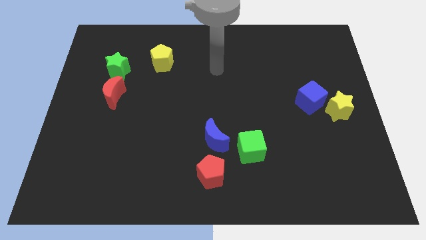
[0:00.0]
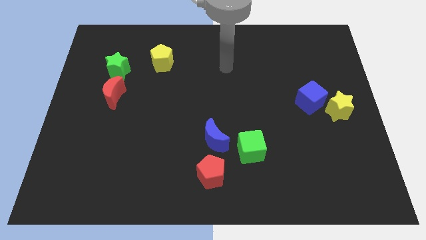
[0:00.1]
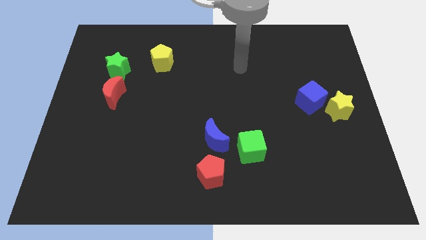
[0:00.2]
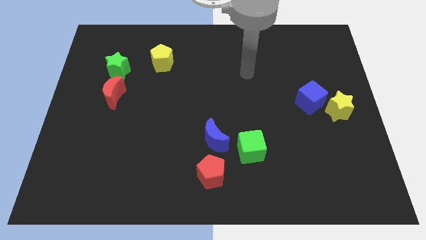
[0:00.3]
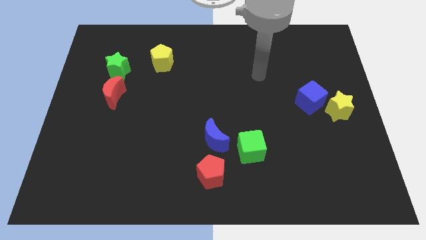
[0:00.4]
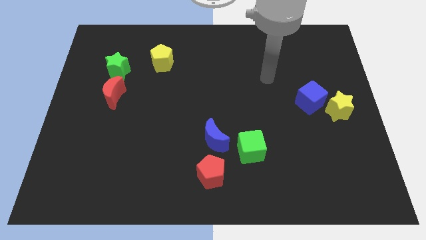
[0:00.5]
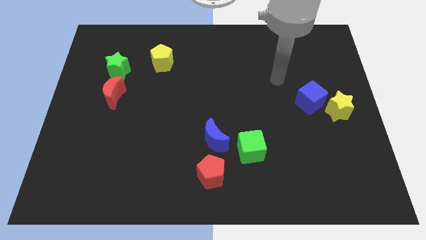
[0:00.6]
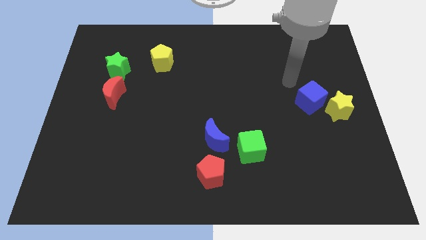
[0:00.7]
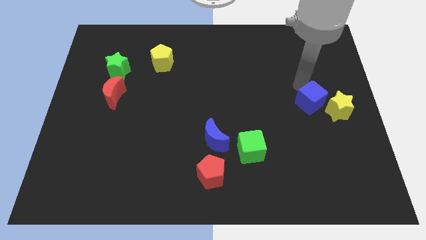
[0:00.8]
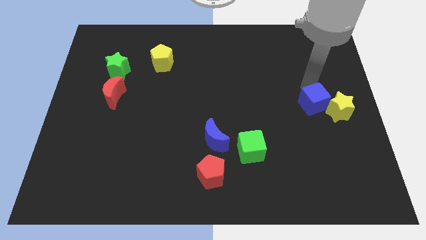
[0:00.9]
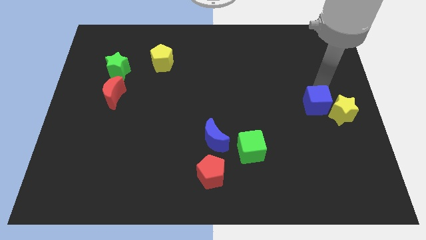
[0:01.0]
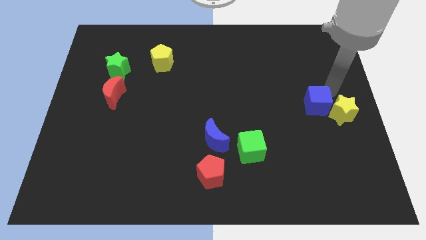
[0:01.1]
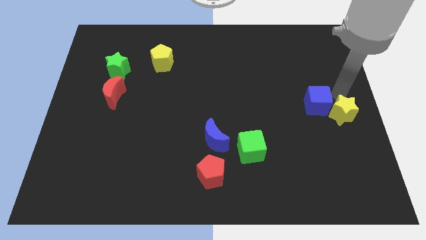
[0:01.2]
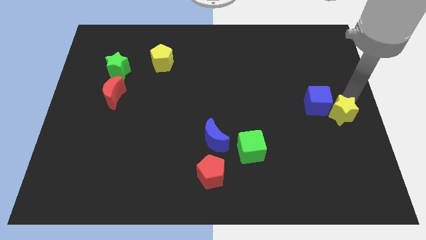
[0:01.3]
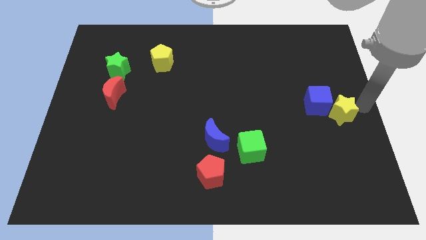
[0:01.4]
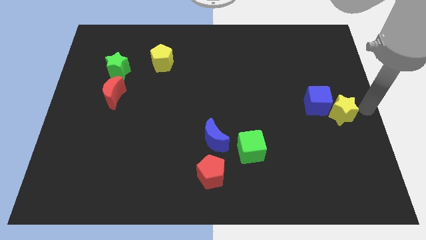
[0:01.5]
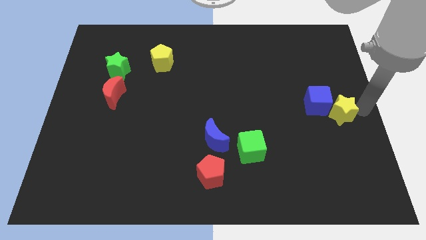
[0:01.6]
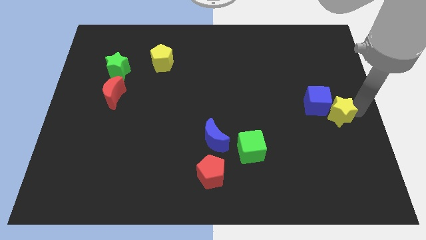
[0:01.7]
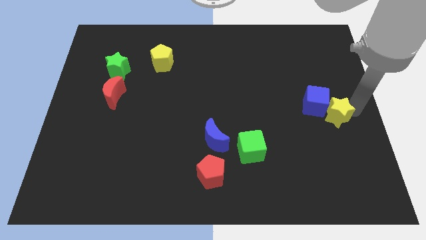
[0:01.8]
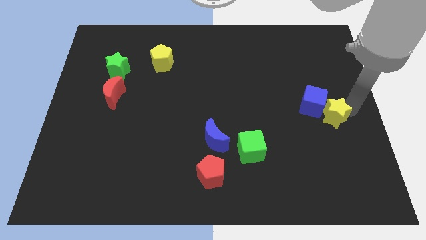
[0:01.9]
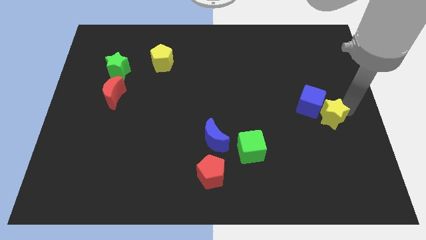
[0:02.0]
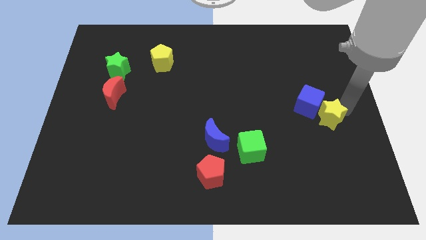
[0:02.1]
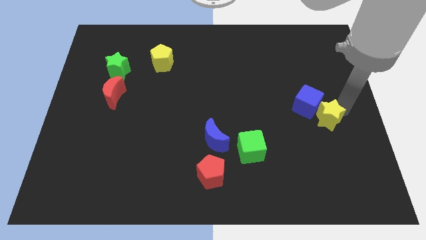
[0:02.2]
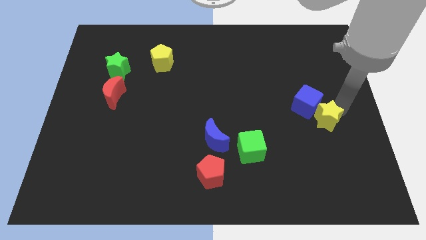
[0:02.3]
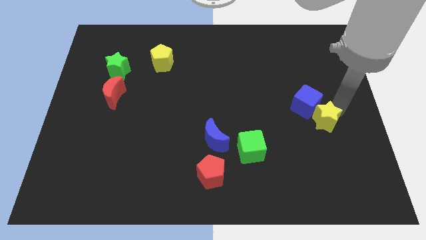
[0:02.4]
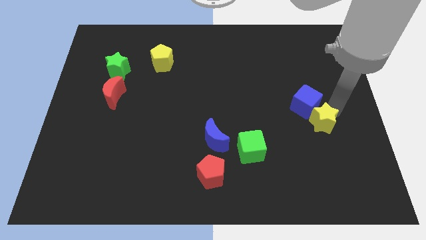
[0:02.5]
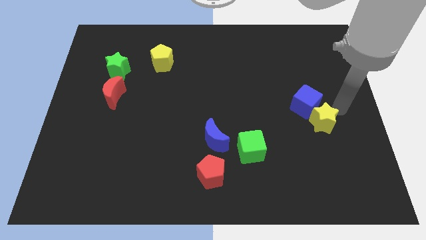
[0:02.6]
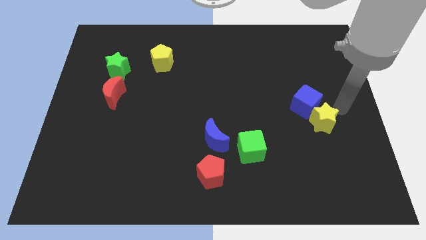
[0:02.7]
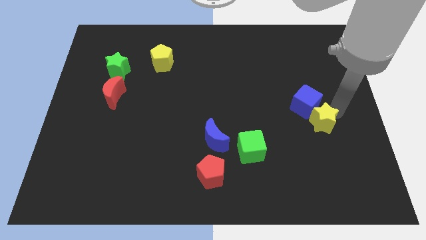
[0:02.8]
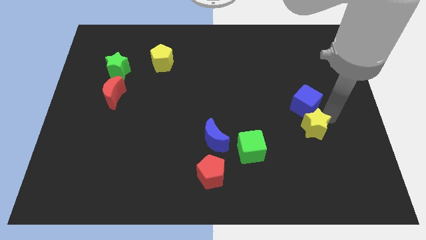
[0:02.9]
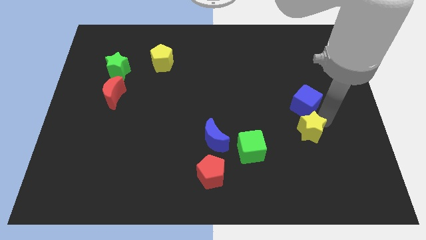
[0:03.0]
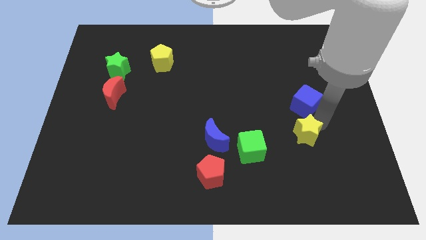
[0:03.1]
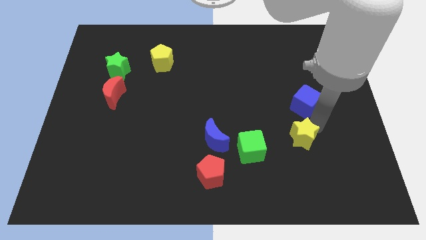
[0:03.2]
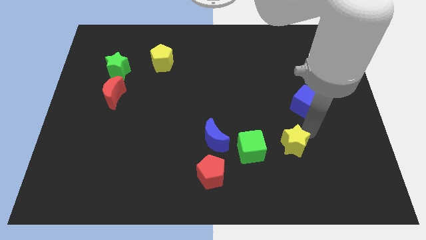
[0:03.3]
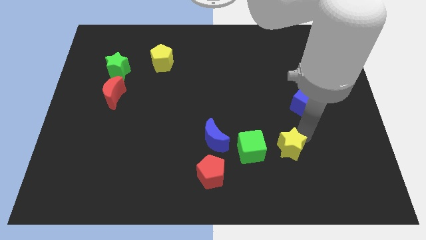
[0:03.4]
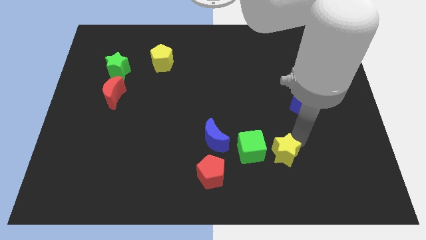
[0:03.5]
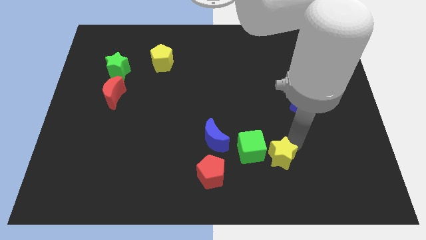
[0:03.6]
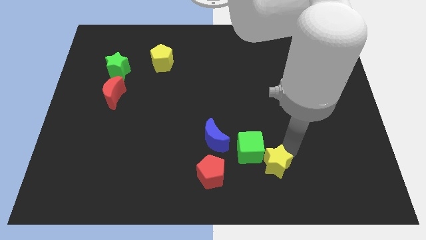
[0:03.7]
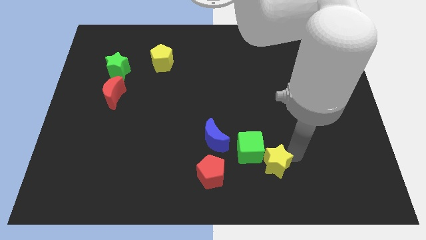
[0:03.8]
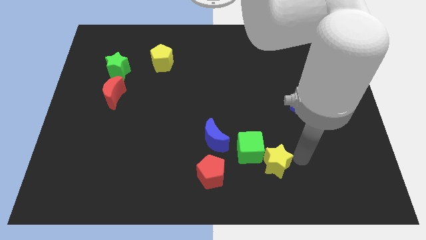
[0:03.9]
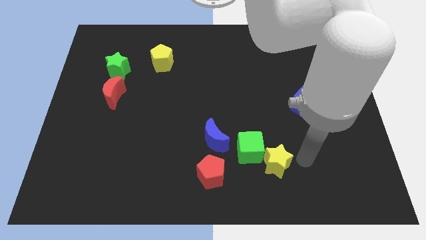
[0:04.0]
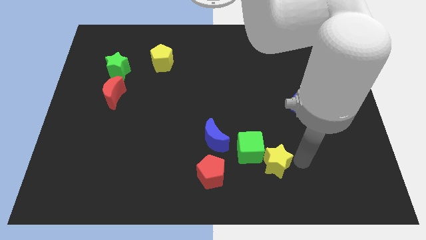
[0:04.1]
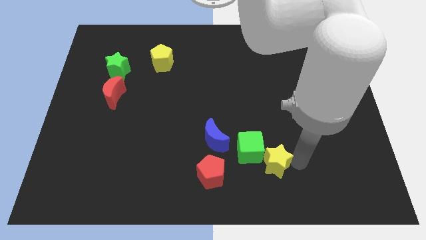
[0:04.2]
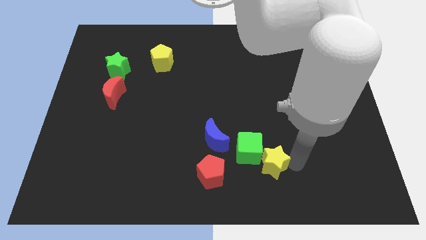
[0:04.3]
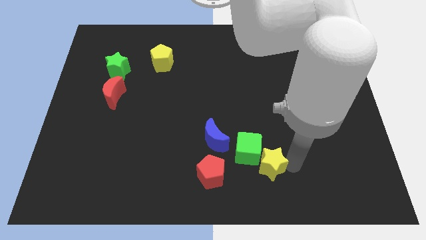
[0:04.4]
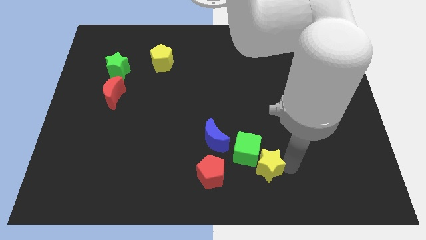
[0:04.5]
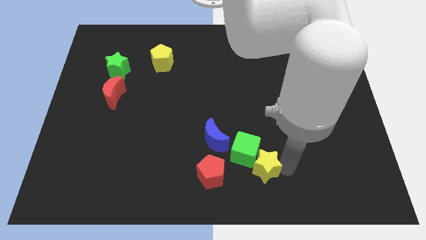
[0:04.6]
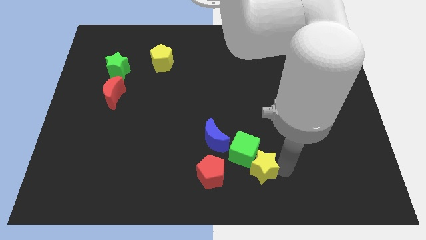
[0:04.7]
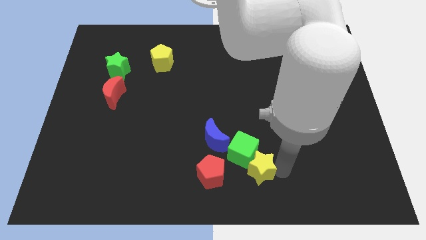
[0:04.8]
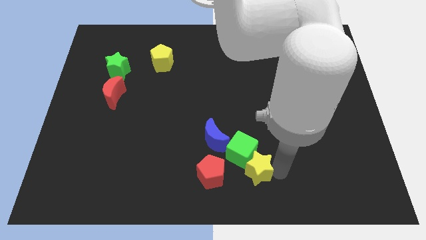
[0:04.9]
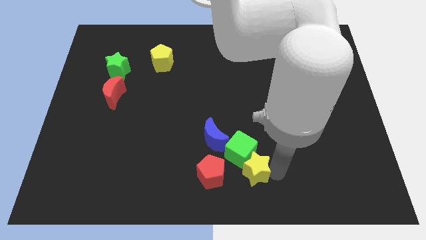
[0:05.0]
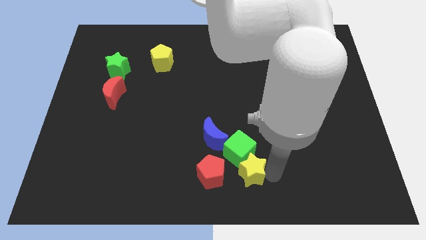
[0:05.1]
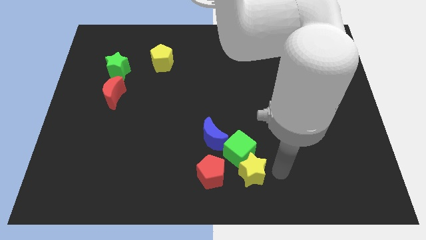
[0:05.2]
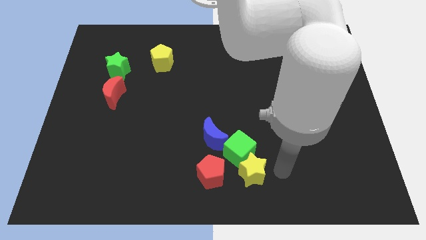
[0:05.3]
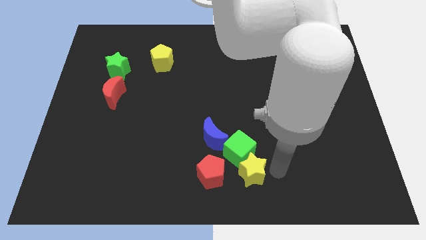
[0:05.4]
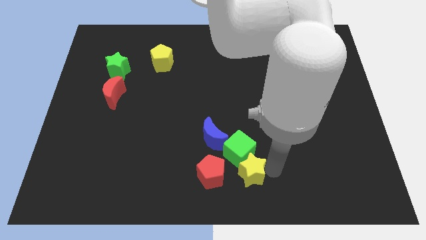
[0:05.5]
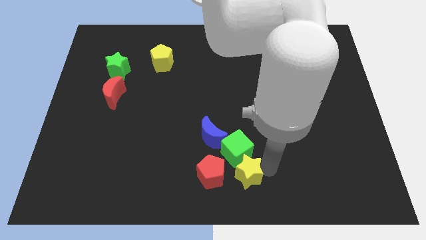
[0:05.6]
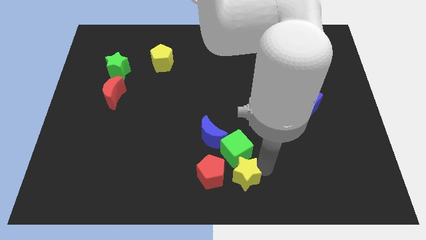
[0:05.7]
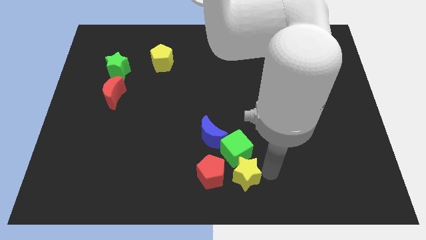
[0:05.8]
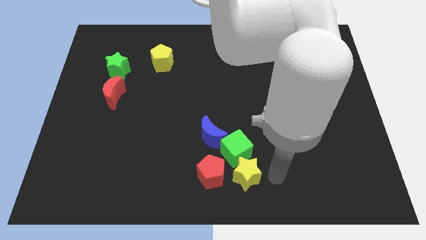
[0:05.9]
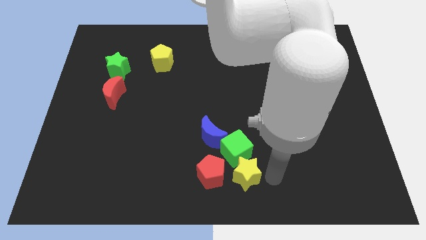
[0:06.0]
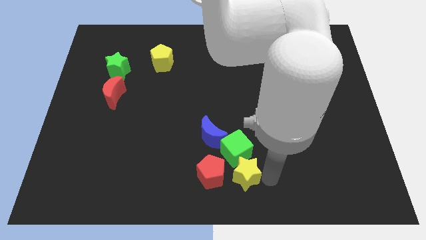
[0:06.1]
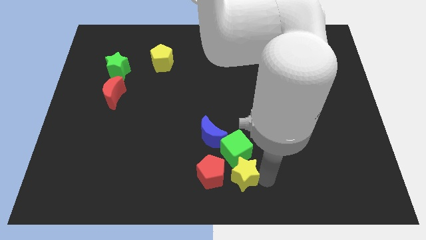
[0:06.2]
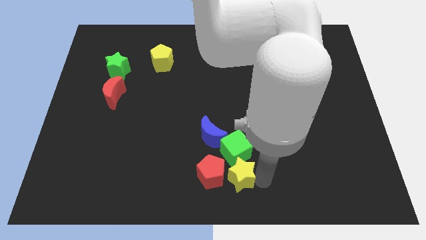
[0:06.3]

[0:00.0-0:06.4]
move the yellow star close to the red pentagon

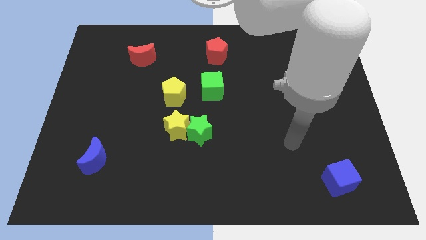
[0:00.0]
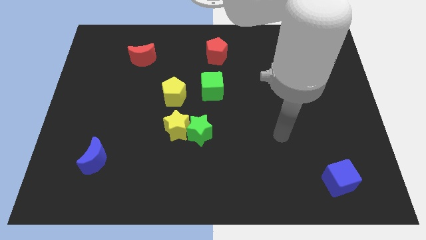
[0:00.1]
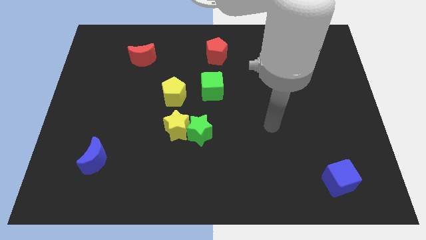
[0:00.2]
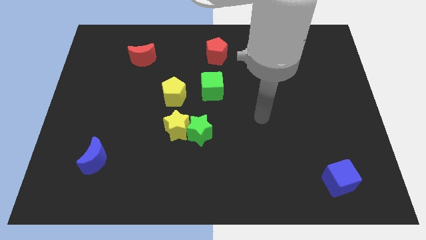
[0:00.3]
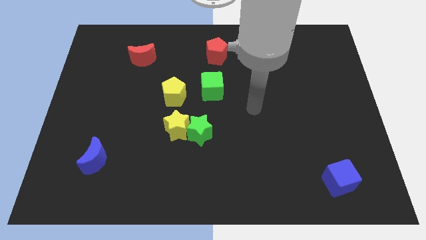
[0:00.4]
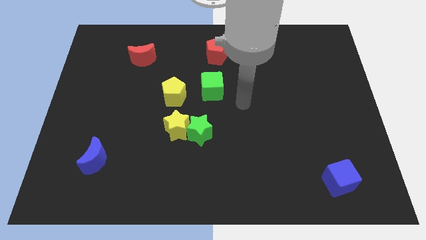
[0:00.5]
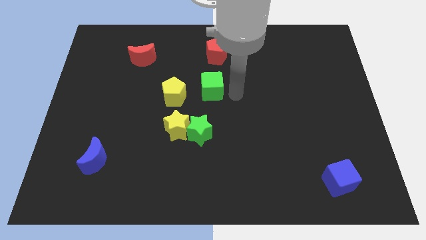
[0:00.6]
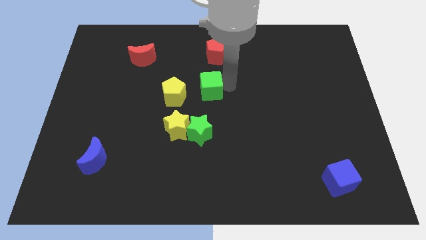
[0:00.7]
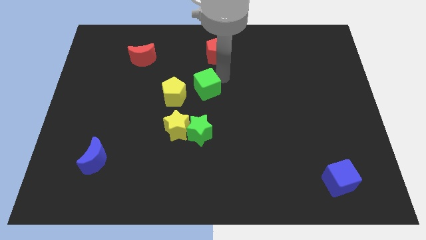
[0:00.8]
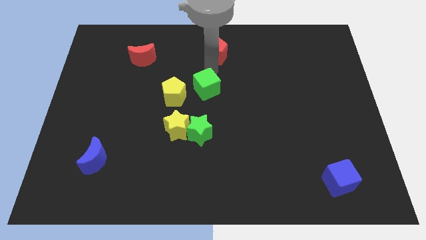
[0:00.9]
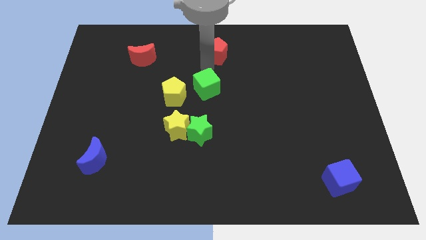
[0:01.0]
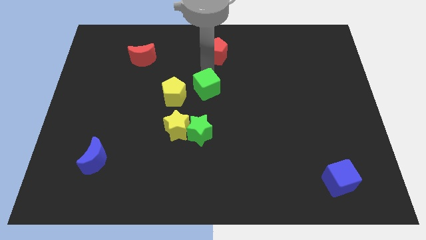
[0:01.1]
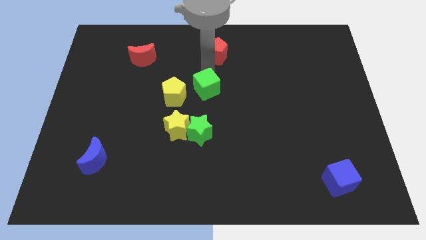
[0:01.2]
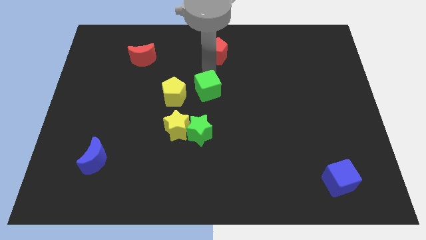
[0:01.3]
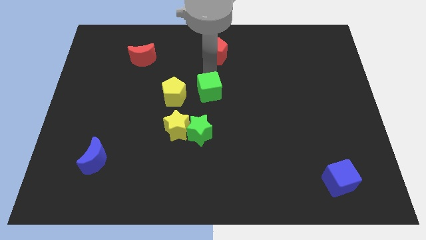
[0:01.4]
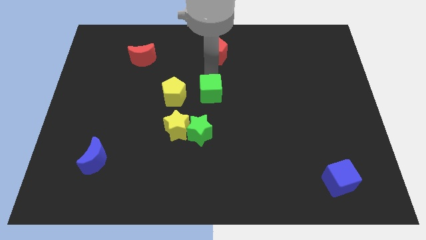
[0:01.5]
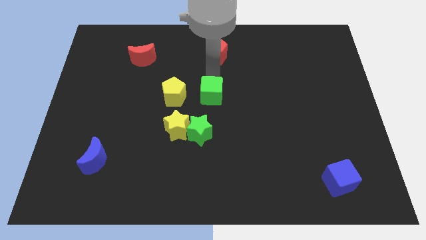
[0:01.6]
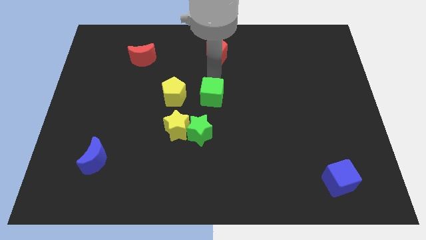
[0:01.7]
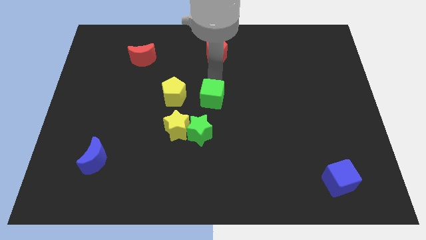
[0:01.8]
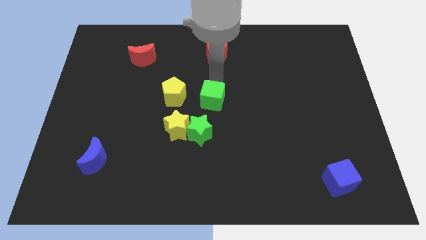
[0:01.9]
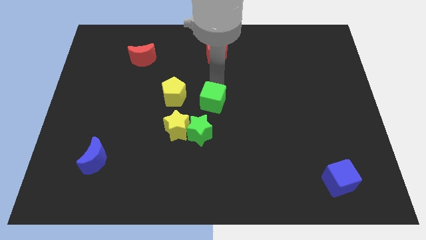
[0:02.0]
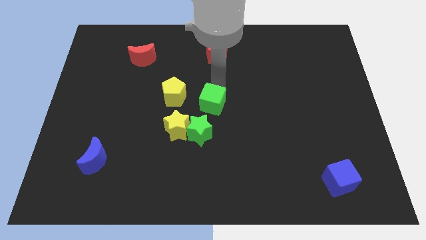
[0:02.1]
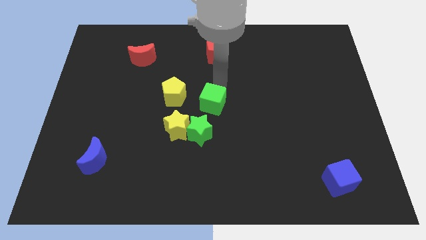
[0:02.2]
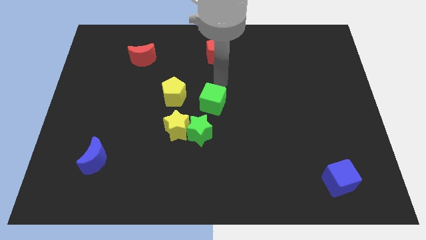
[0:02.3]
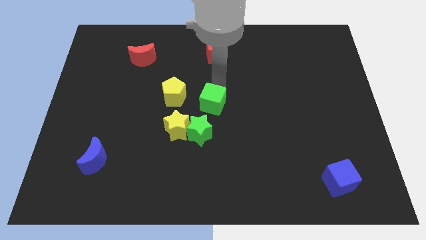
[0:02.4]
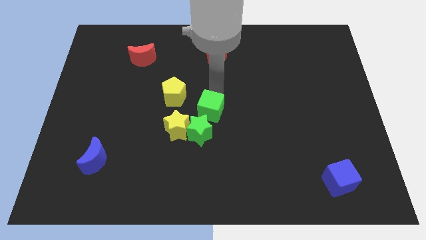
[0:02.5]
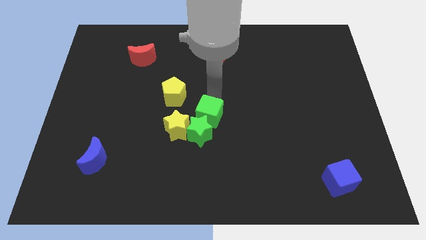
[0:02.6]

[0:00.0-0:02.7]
move the green cube next to the green star
